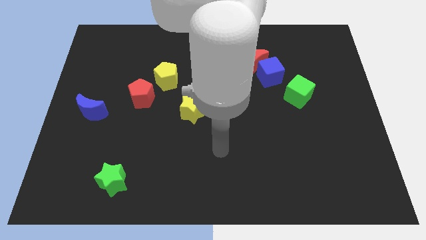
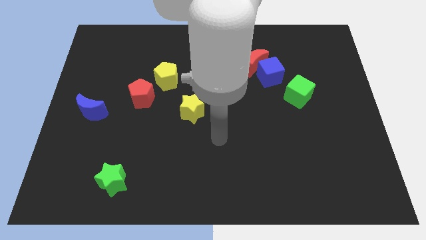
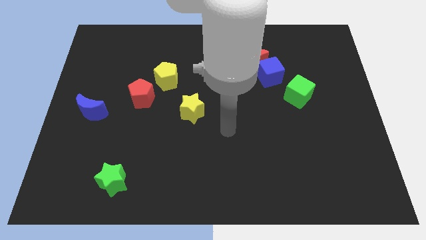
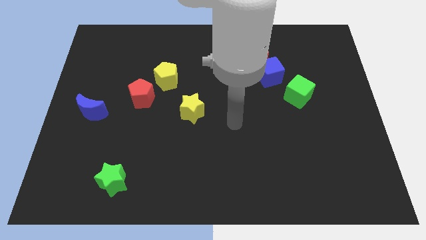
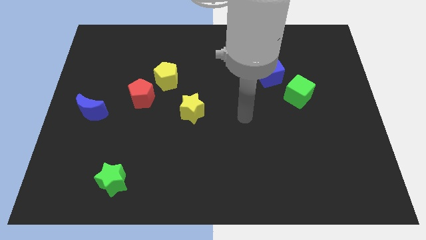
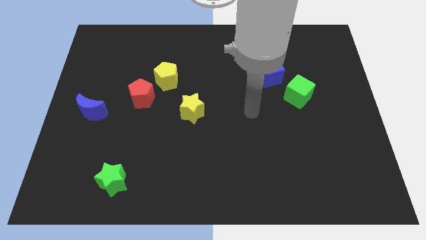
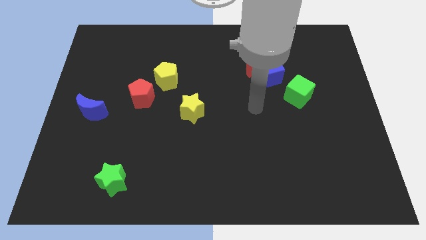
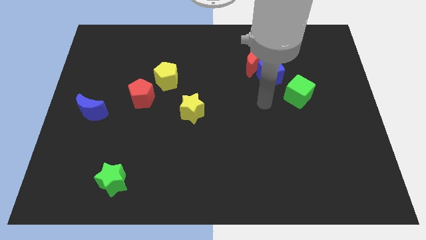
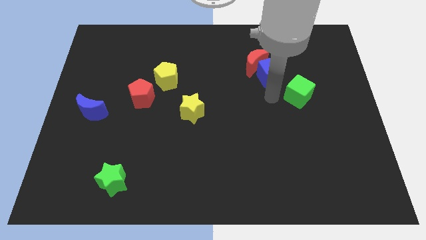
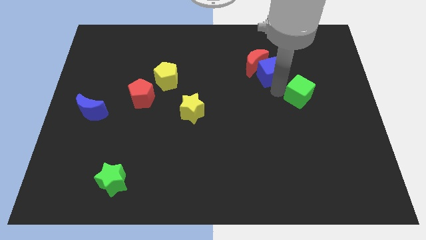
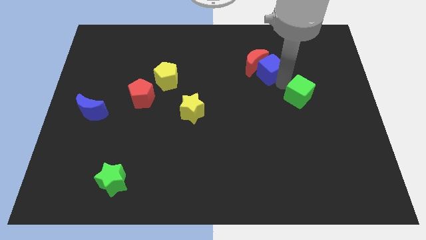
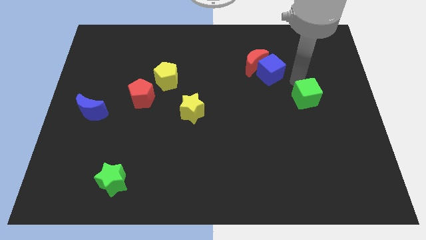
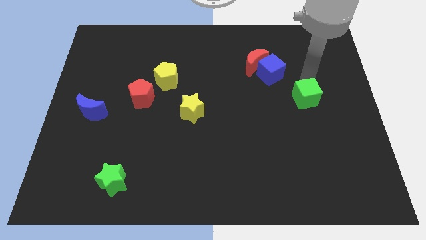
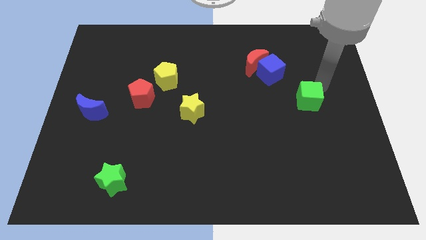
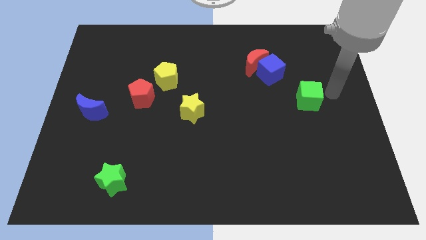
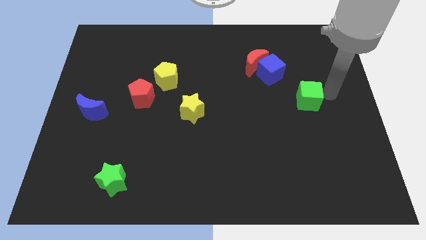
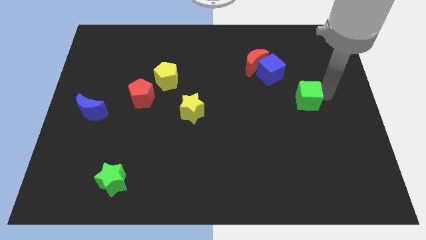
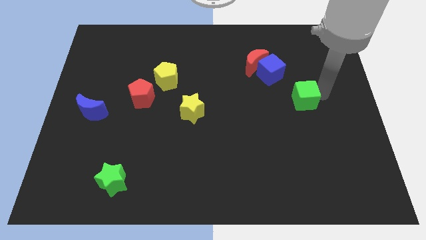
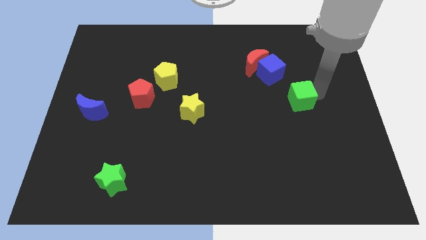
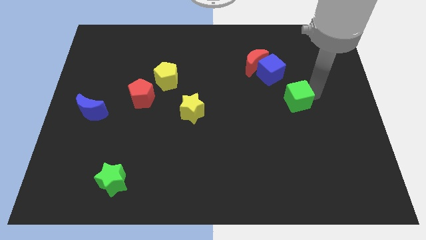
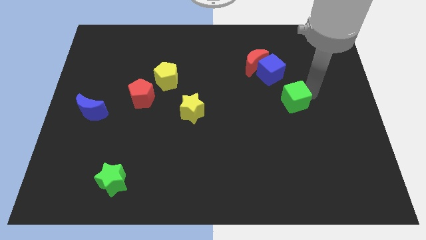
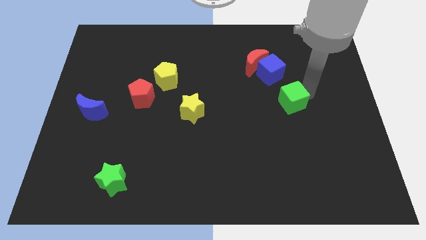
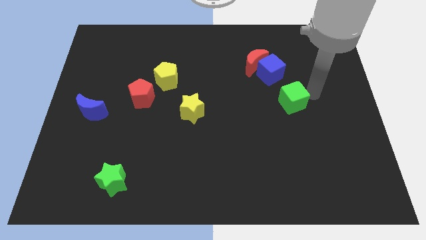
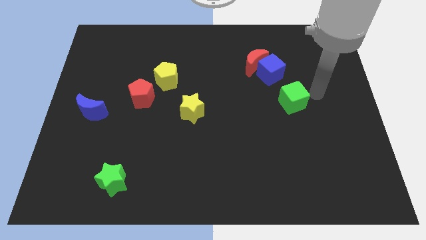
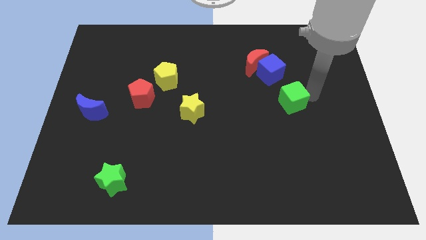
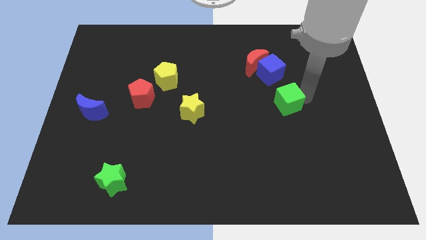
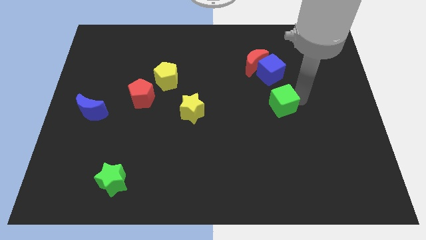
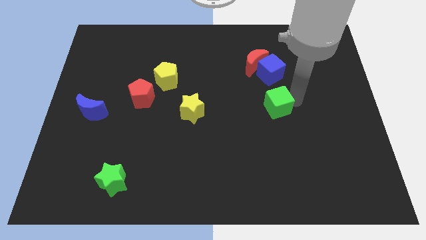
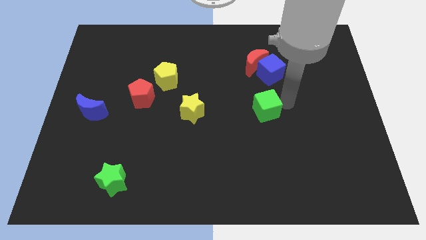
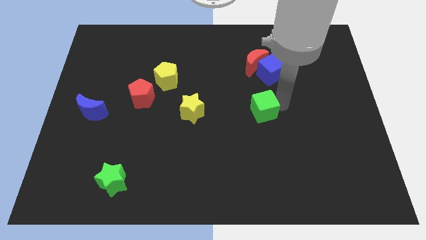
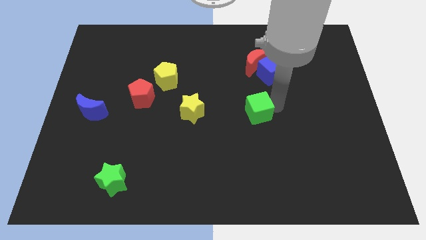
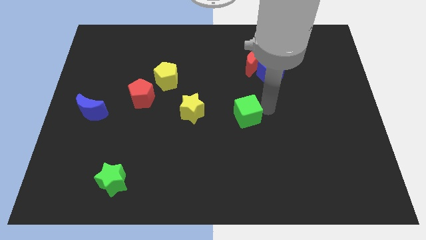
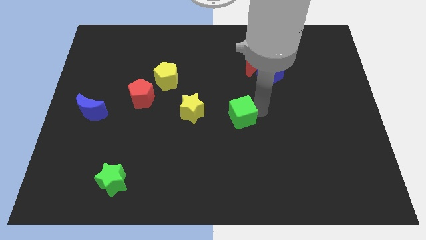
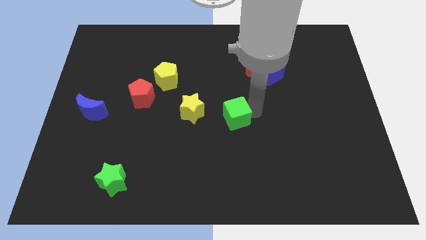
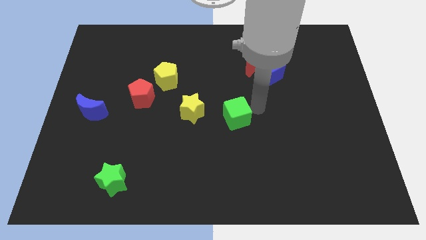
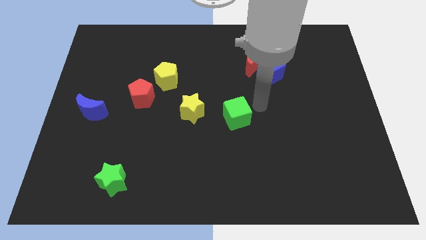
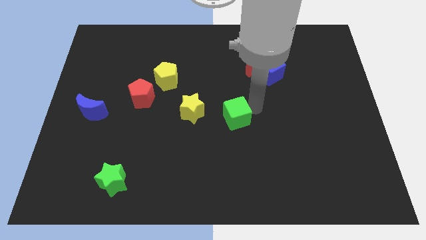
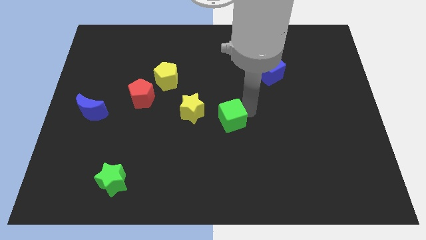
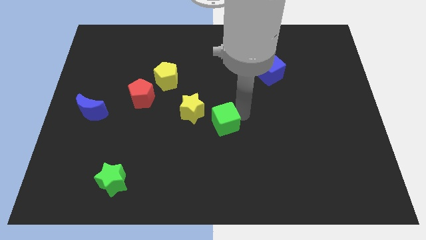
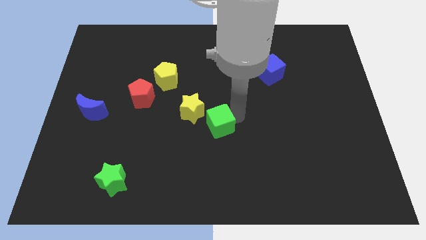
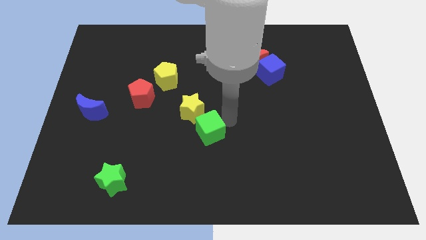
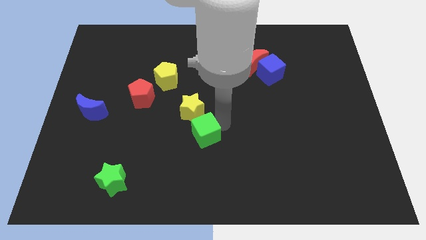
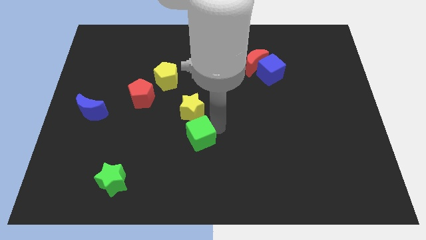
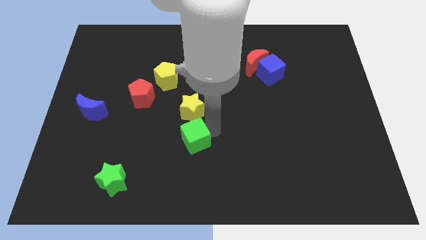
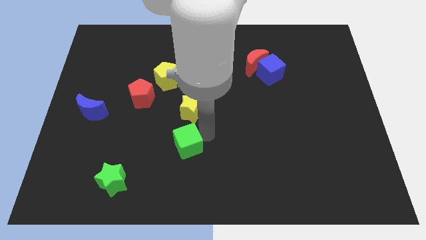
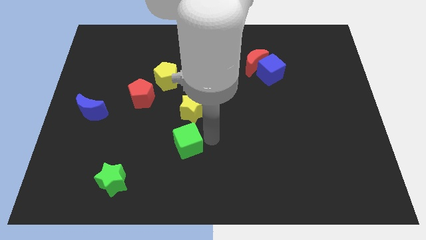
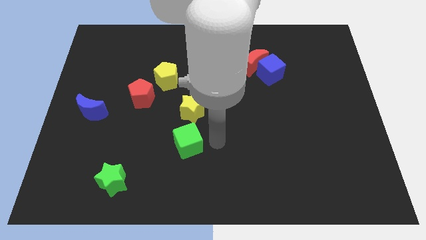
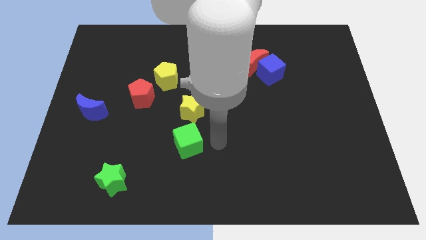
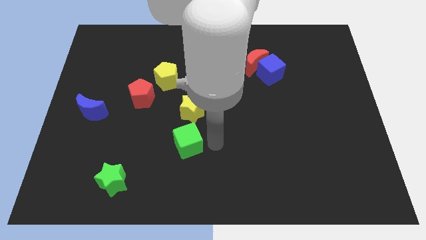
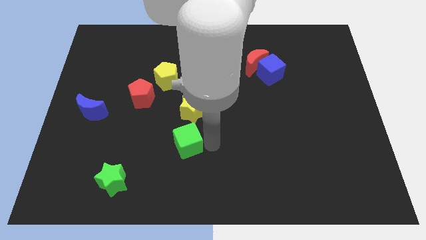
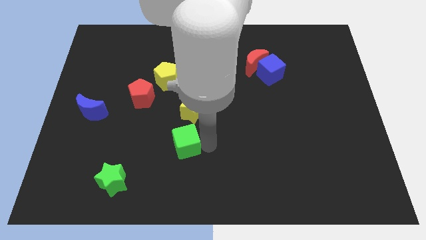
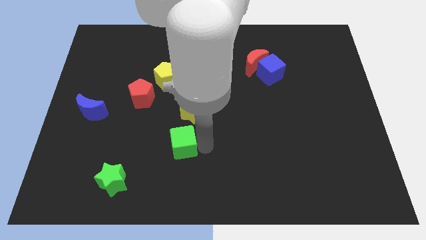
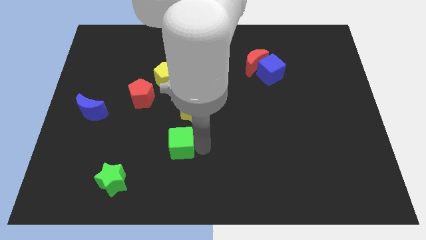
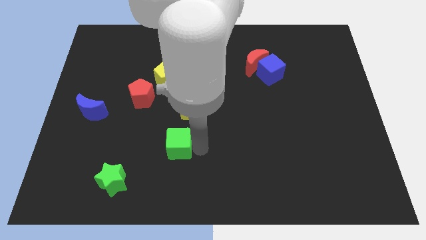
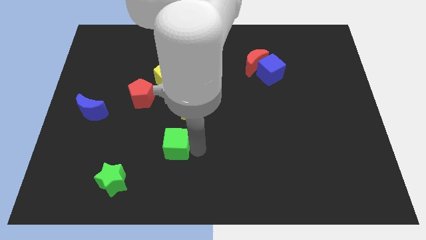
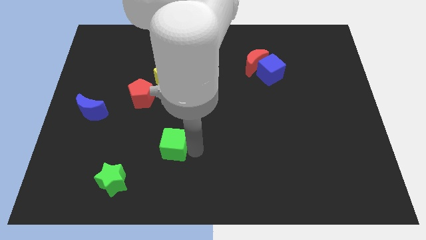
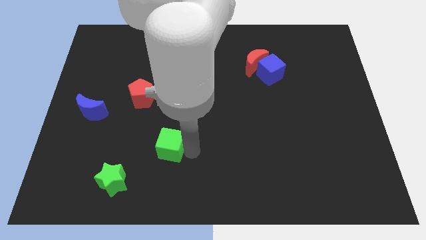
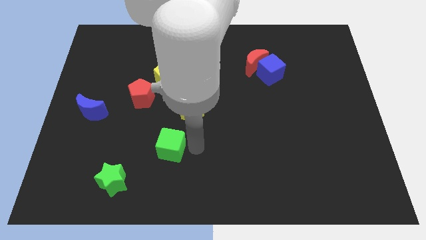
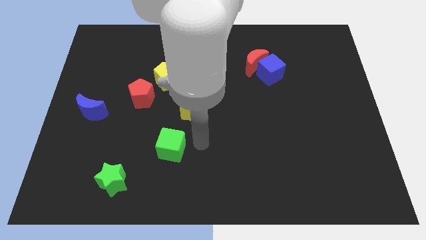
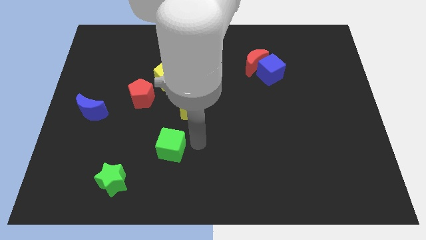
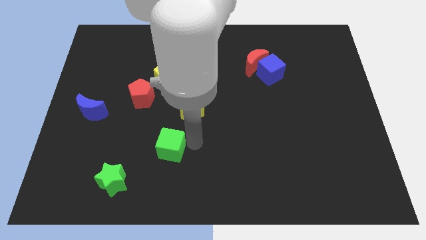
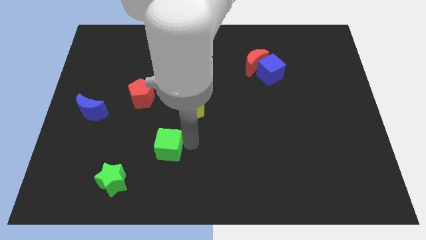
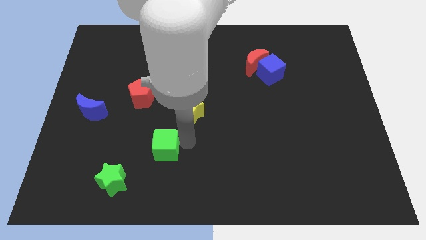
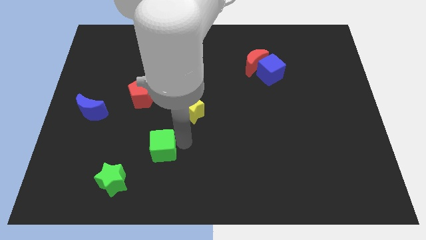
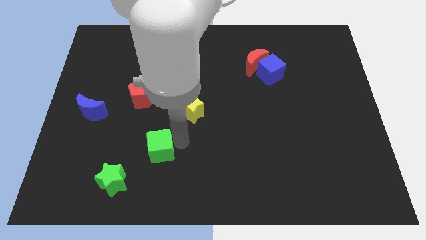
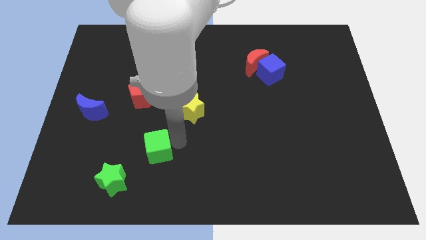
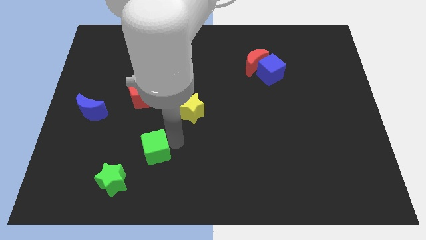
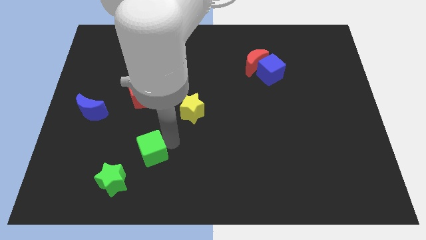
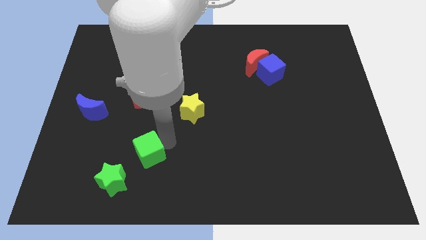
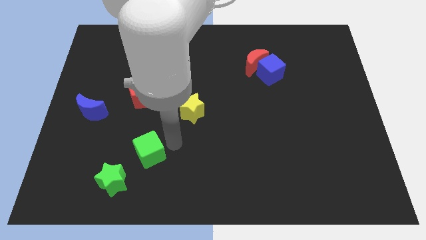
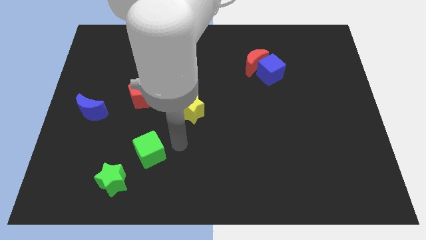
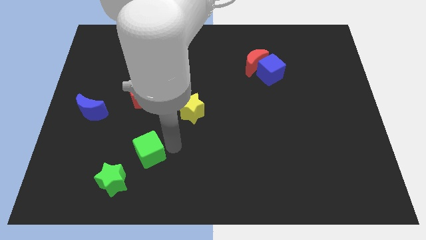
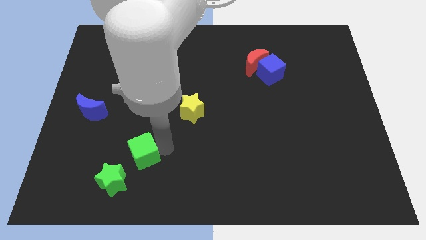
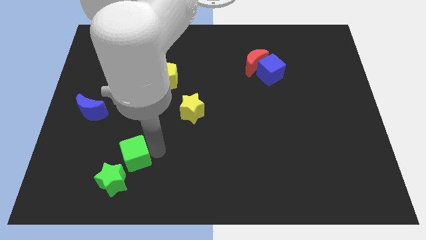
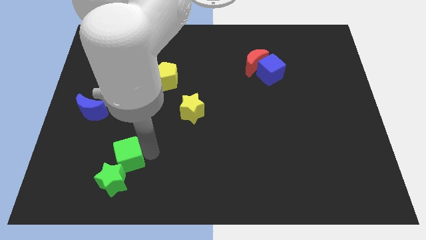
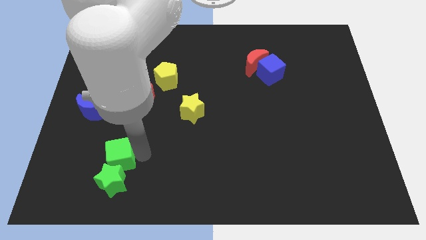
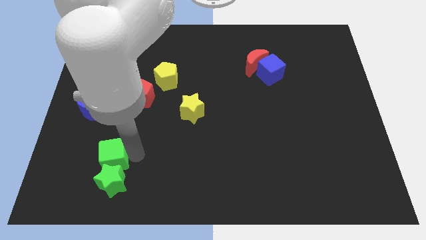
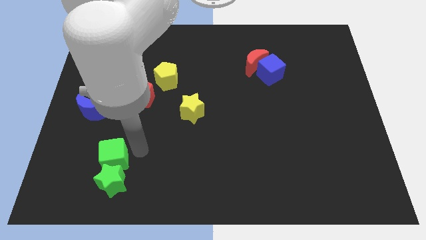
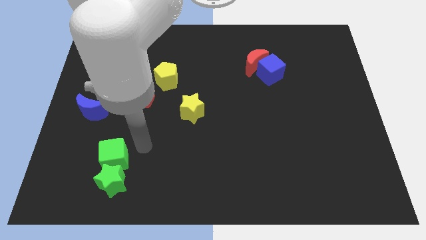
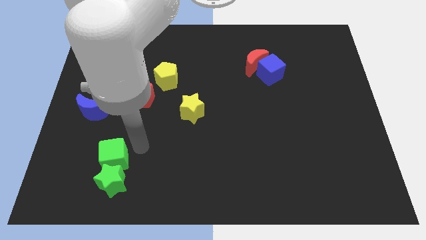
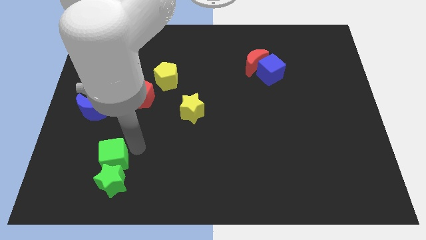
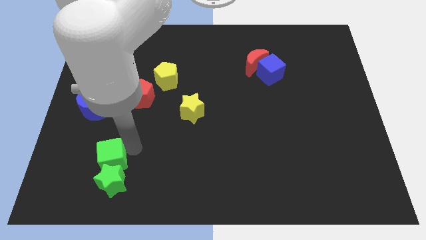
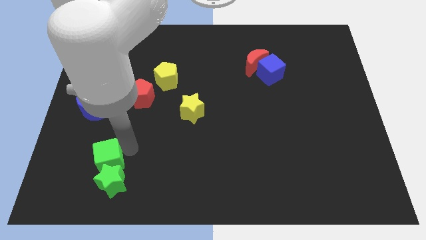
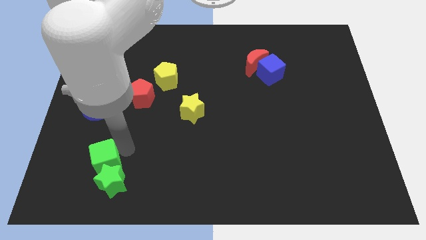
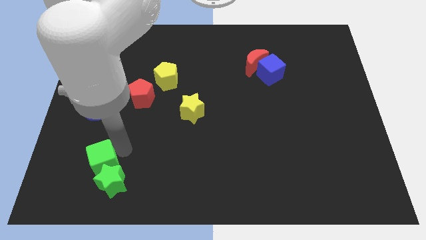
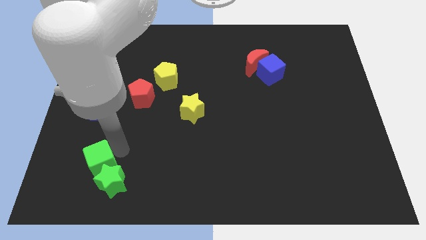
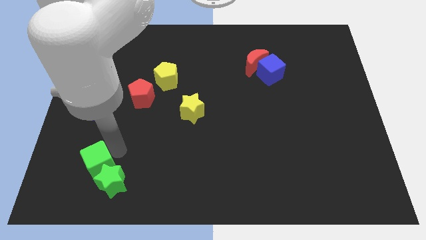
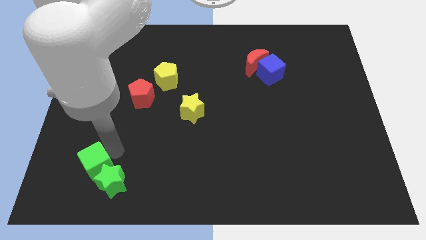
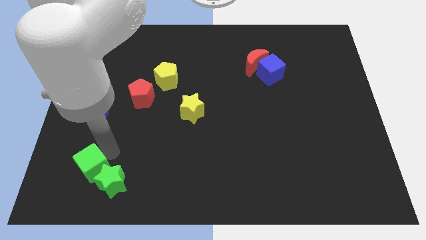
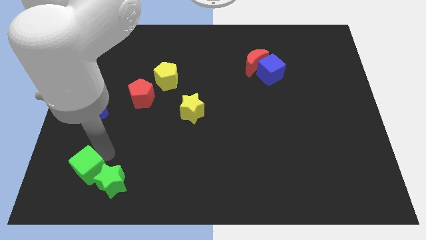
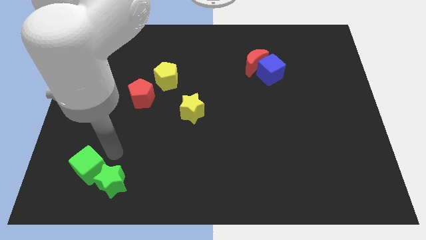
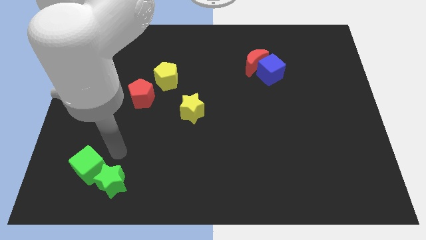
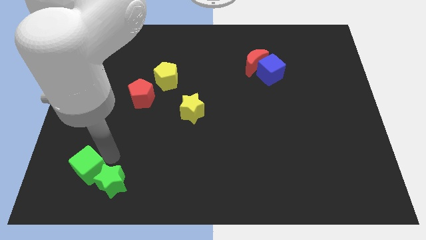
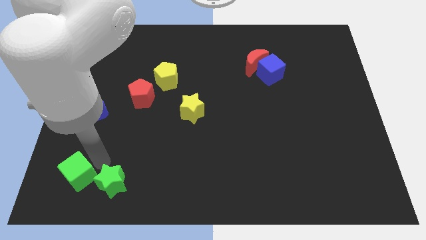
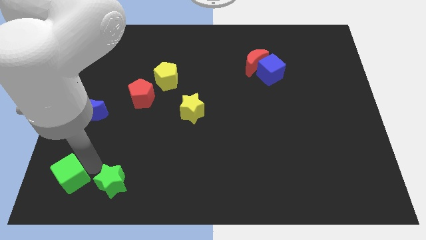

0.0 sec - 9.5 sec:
slide the green cube to the lower left corner
